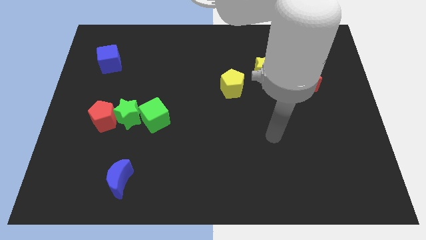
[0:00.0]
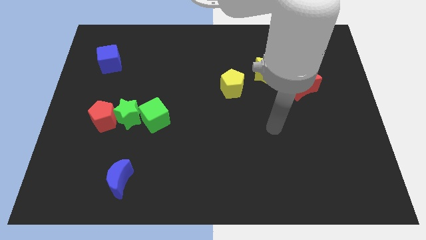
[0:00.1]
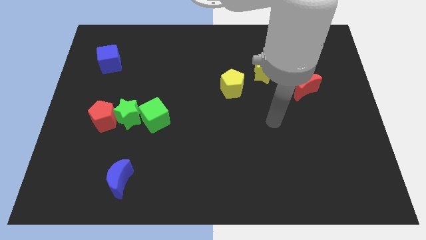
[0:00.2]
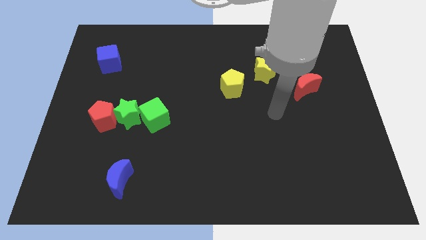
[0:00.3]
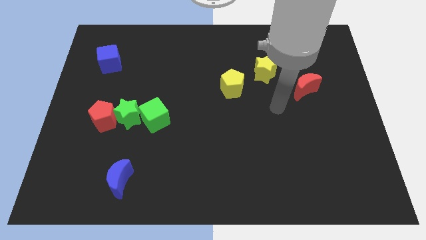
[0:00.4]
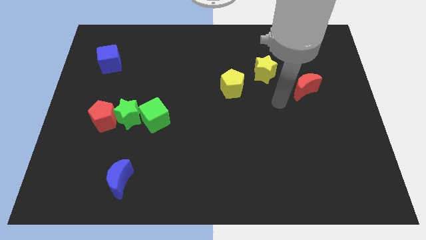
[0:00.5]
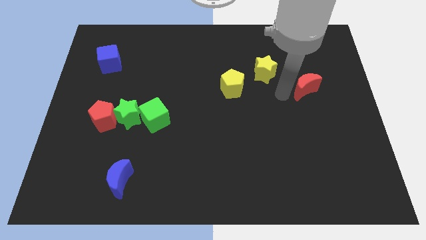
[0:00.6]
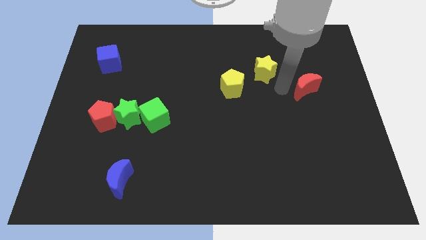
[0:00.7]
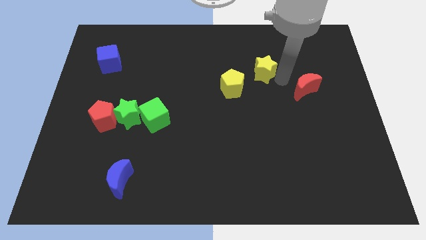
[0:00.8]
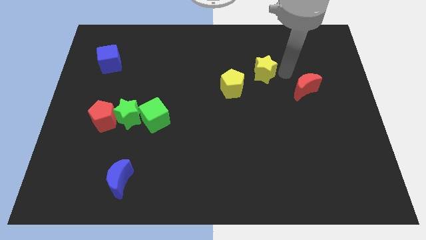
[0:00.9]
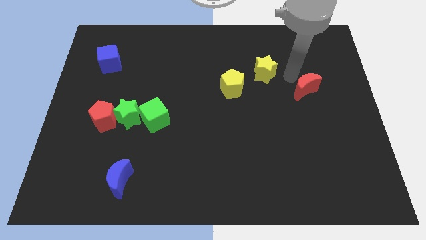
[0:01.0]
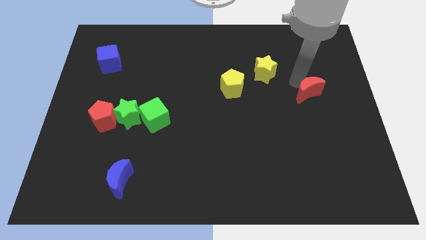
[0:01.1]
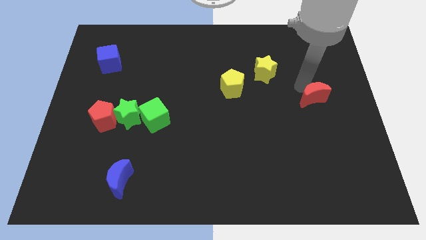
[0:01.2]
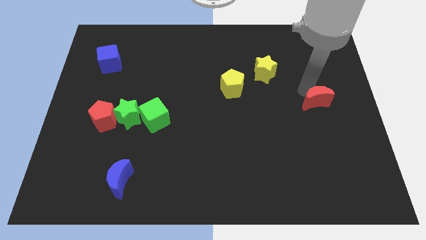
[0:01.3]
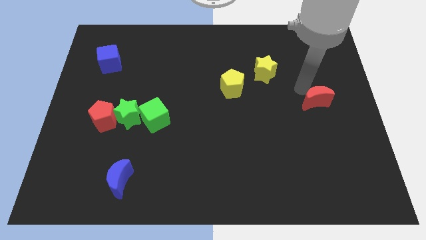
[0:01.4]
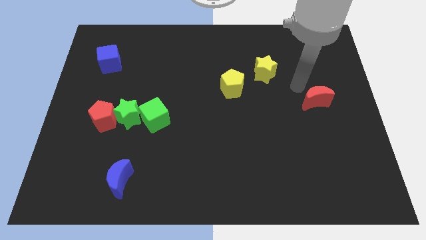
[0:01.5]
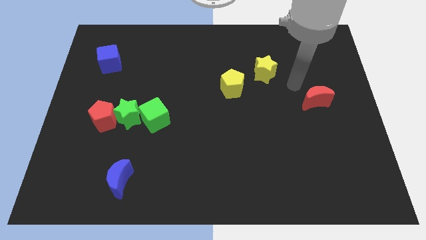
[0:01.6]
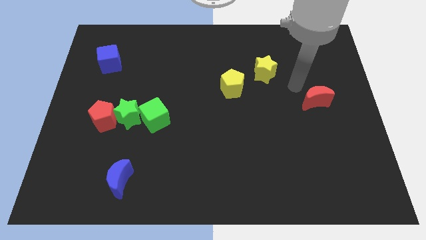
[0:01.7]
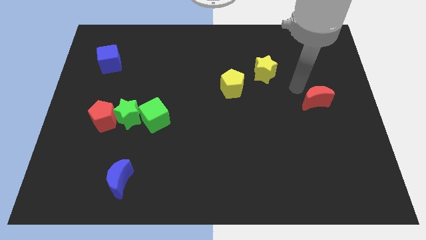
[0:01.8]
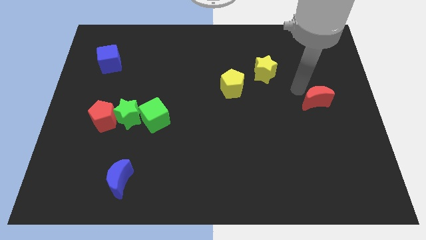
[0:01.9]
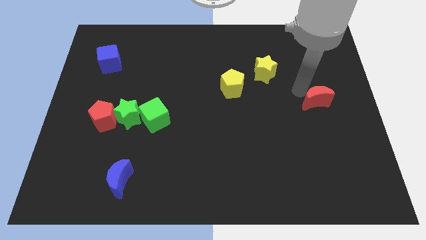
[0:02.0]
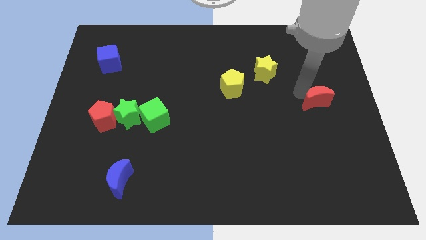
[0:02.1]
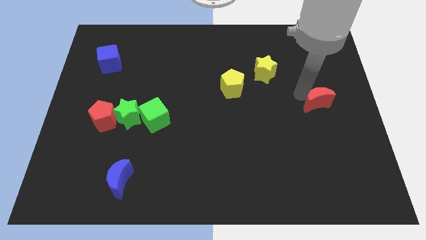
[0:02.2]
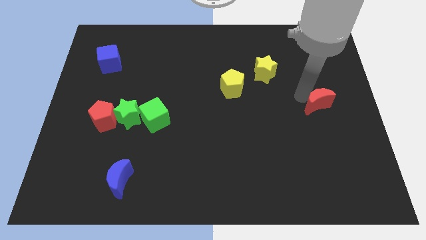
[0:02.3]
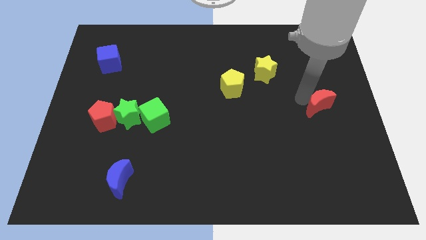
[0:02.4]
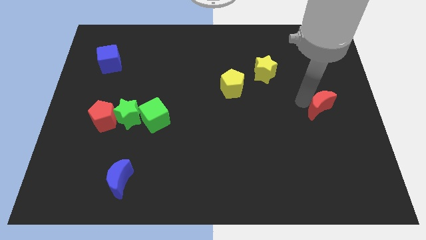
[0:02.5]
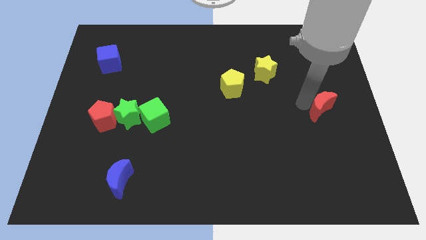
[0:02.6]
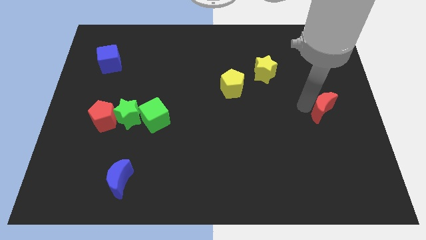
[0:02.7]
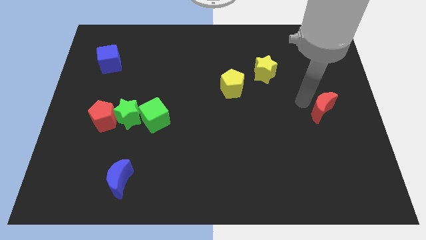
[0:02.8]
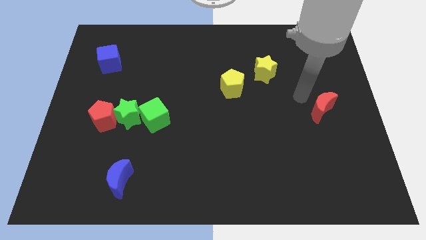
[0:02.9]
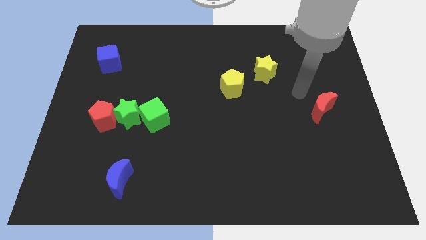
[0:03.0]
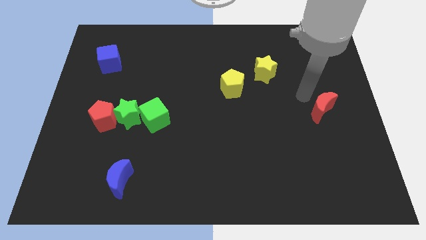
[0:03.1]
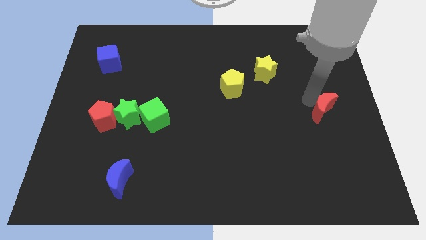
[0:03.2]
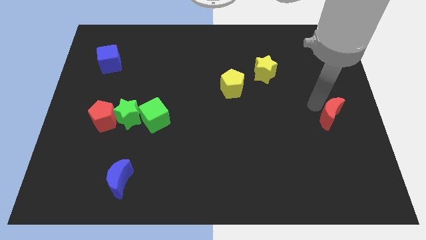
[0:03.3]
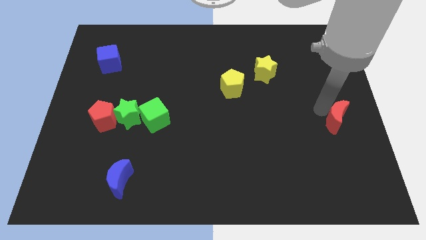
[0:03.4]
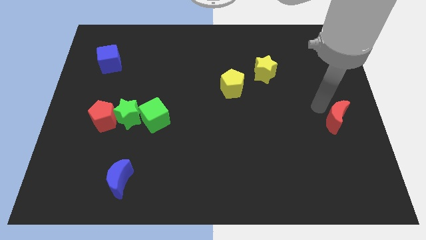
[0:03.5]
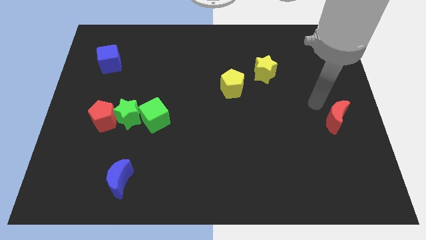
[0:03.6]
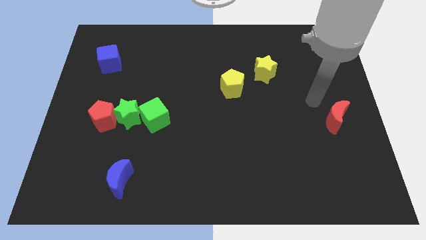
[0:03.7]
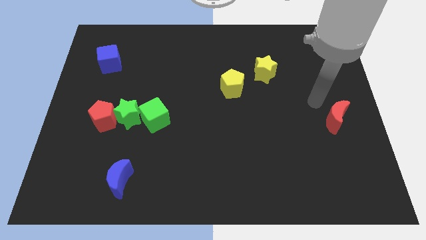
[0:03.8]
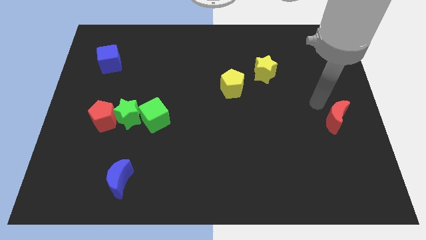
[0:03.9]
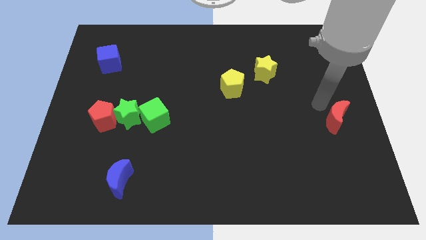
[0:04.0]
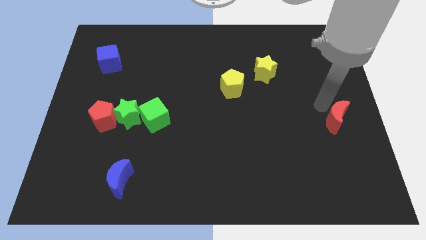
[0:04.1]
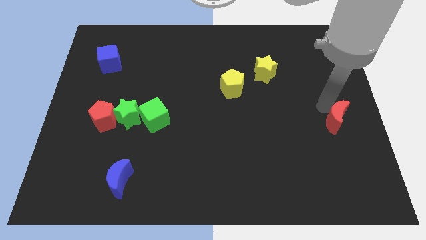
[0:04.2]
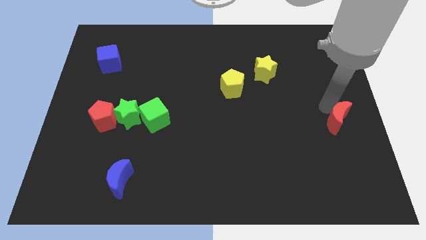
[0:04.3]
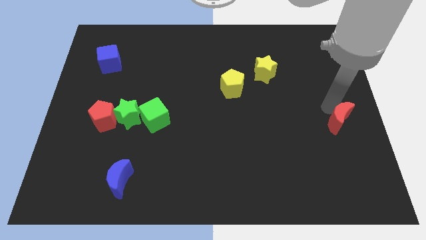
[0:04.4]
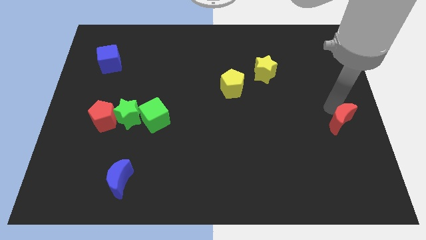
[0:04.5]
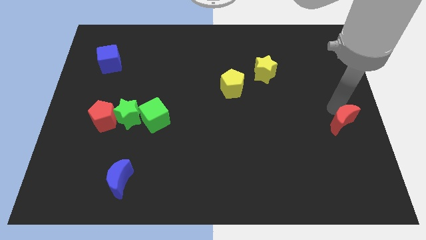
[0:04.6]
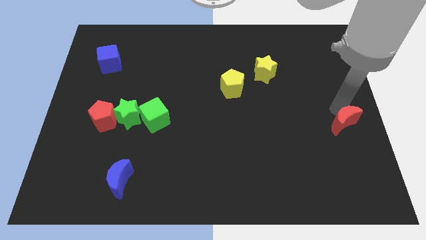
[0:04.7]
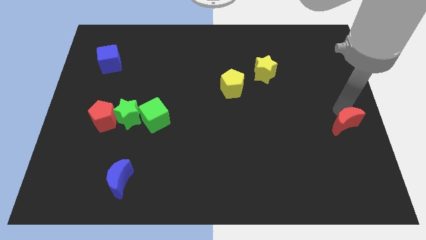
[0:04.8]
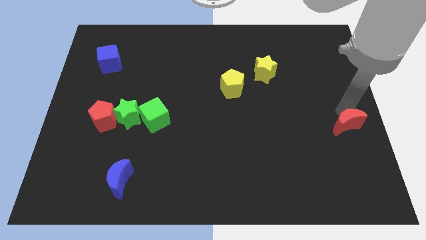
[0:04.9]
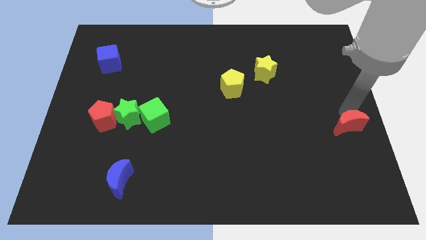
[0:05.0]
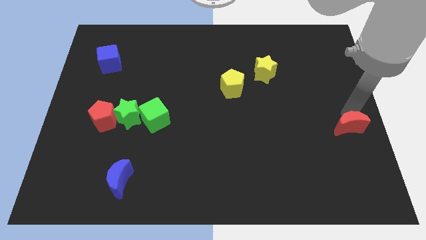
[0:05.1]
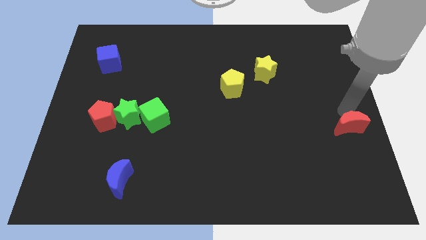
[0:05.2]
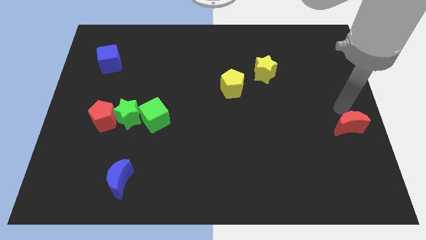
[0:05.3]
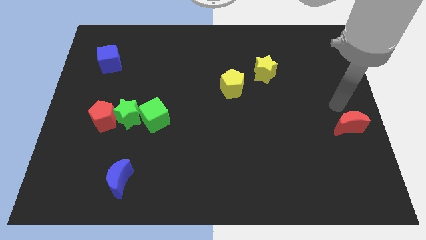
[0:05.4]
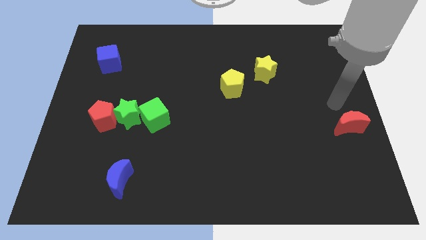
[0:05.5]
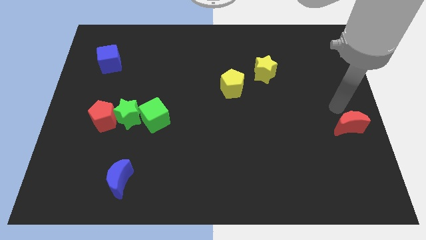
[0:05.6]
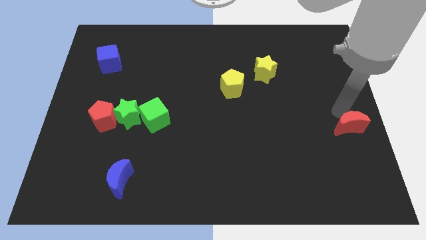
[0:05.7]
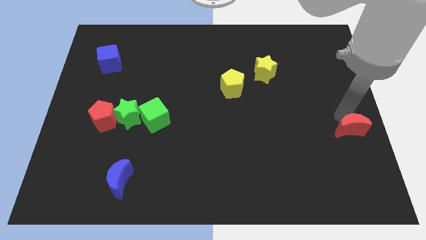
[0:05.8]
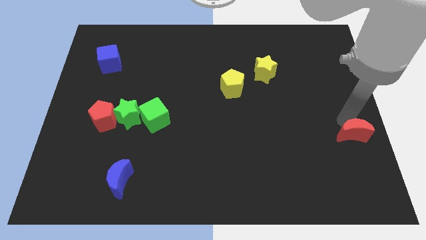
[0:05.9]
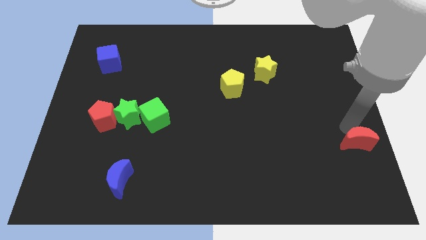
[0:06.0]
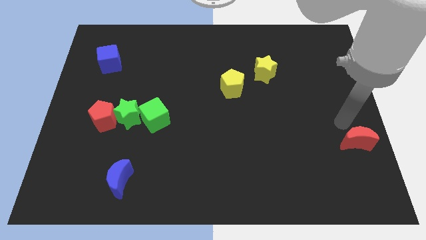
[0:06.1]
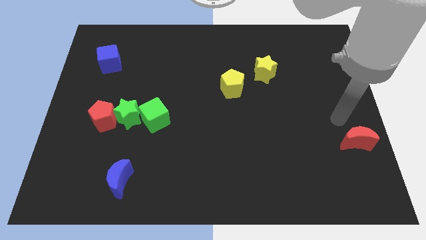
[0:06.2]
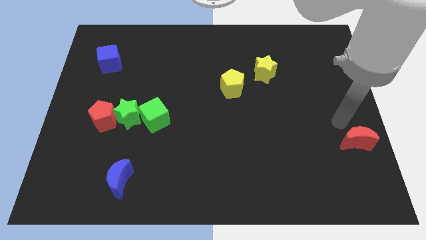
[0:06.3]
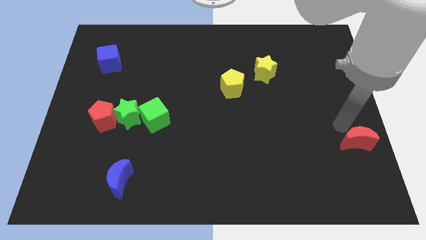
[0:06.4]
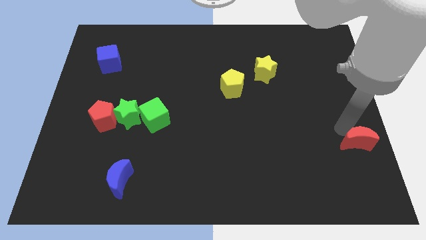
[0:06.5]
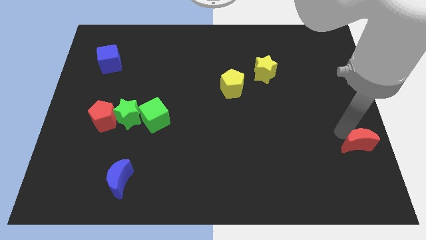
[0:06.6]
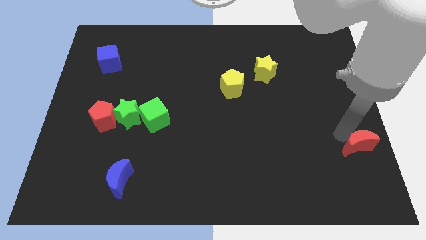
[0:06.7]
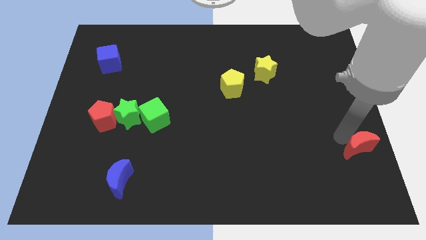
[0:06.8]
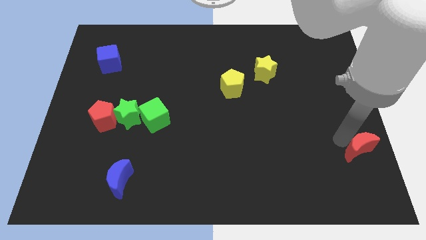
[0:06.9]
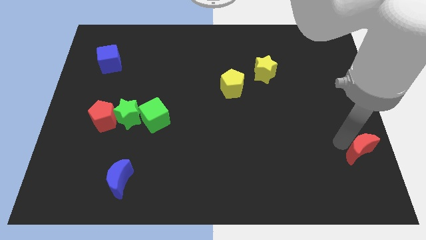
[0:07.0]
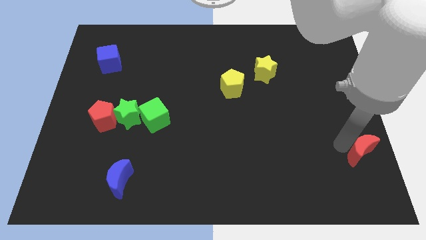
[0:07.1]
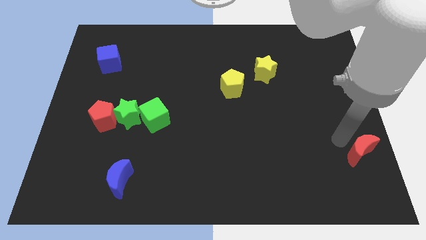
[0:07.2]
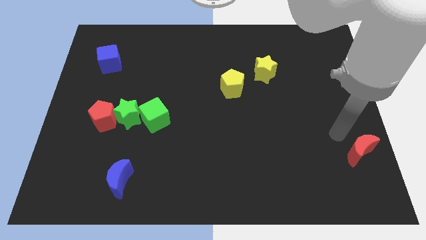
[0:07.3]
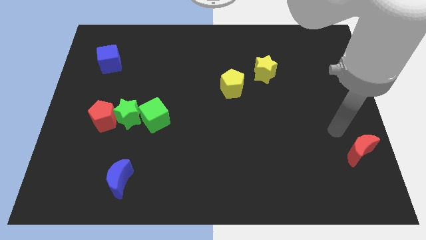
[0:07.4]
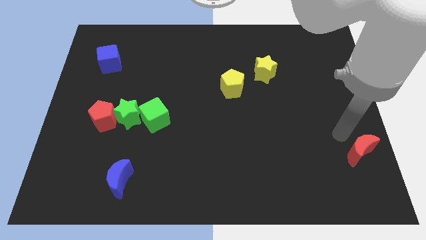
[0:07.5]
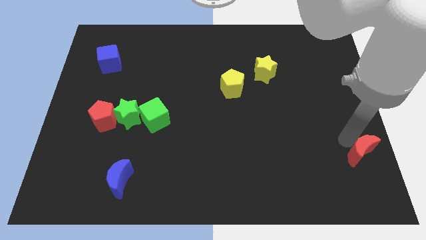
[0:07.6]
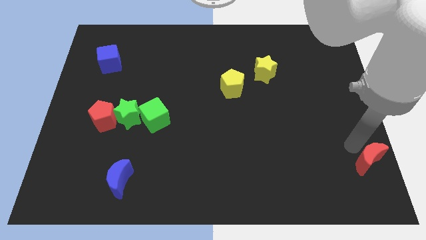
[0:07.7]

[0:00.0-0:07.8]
put the red moon to the lower right corner
